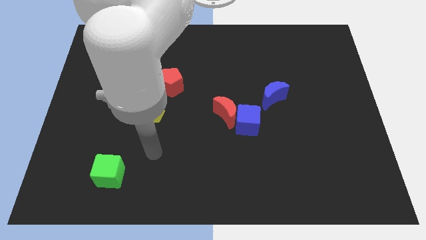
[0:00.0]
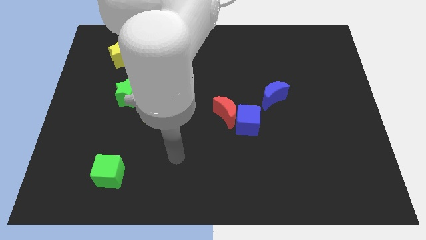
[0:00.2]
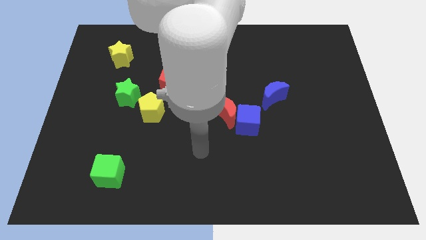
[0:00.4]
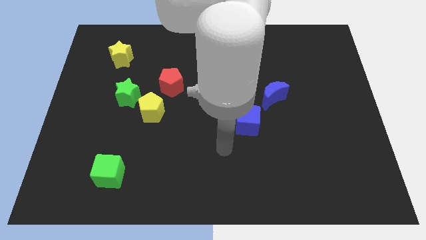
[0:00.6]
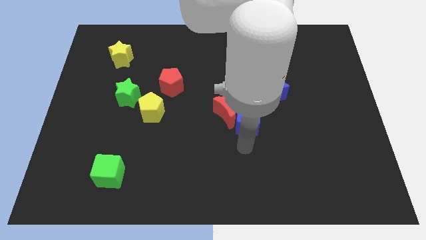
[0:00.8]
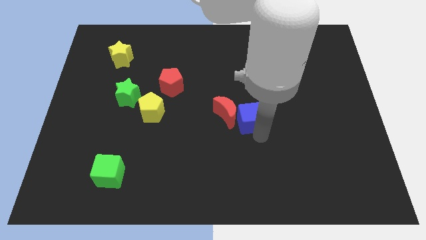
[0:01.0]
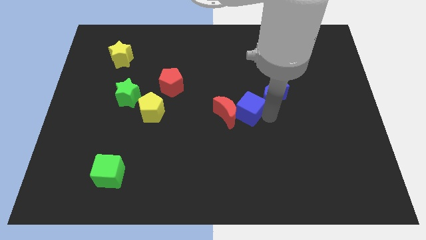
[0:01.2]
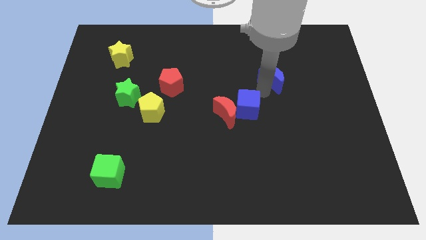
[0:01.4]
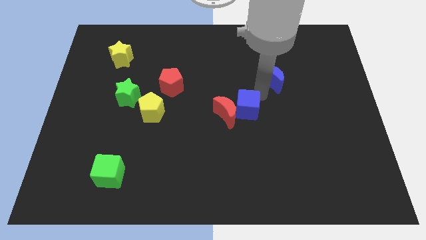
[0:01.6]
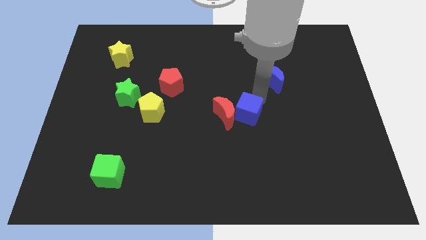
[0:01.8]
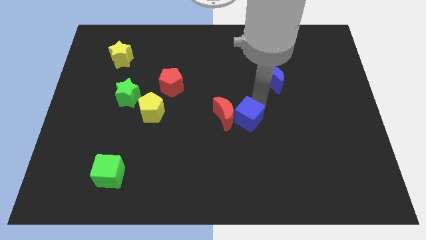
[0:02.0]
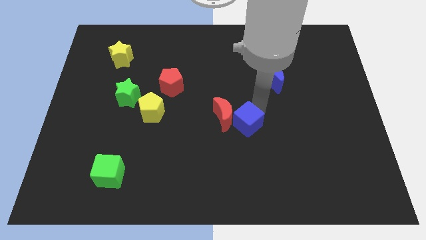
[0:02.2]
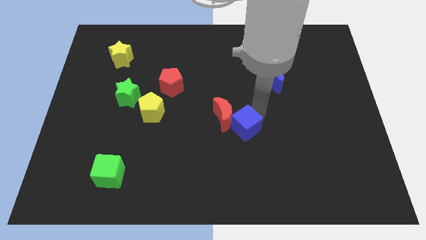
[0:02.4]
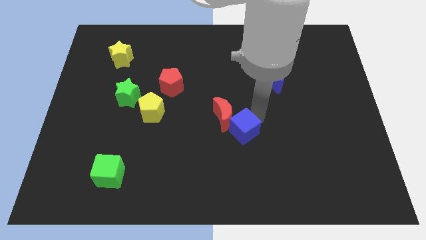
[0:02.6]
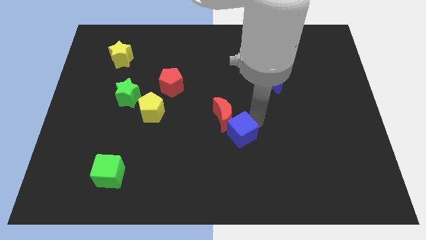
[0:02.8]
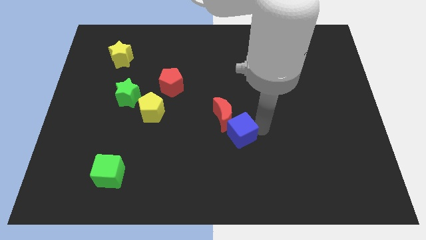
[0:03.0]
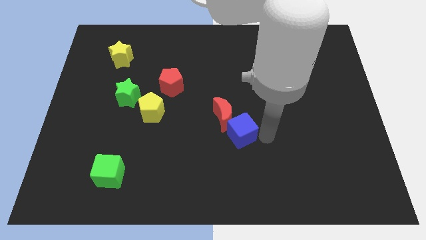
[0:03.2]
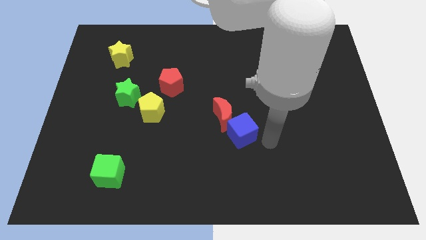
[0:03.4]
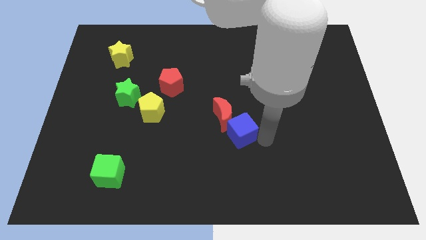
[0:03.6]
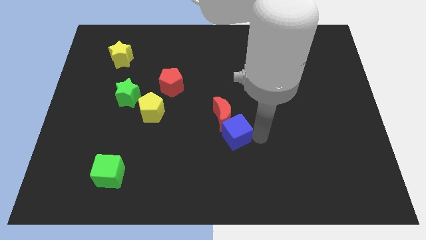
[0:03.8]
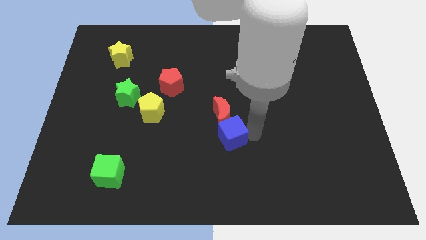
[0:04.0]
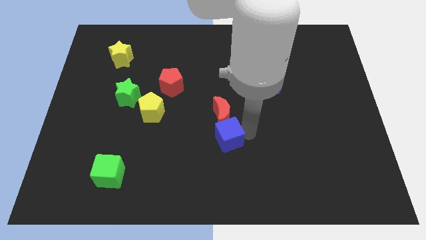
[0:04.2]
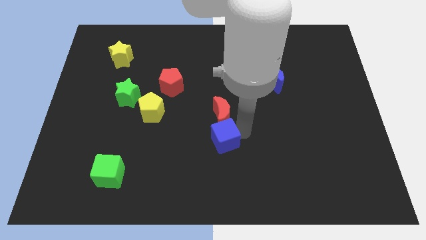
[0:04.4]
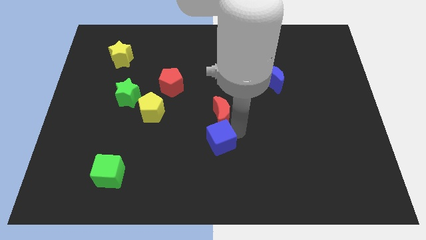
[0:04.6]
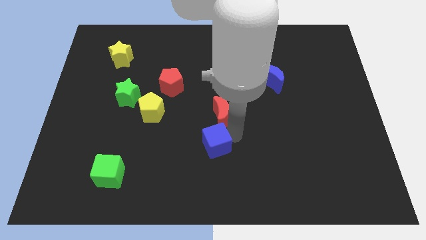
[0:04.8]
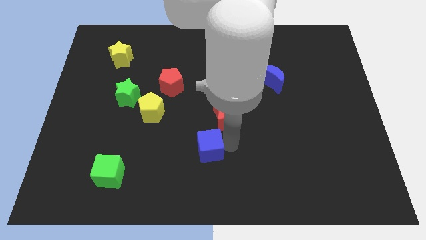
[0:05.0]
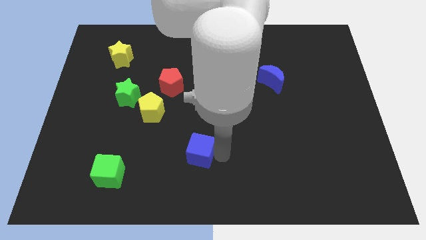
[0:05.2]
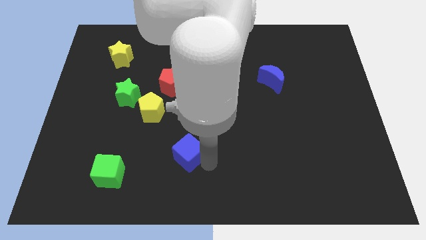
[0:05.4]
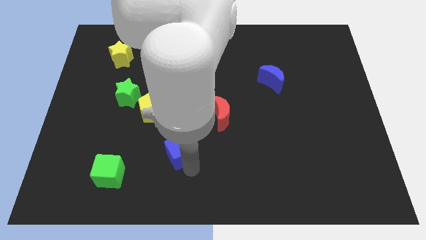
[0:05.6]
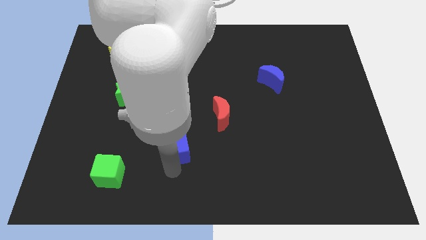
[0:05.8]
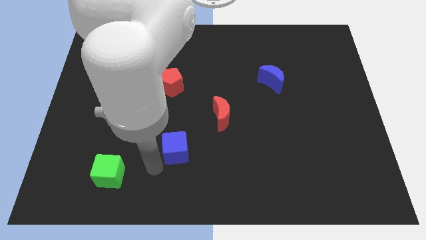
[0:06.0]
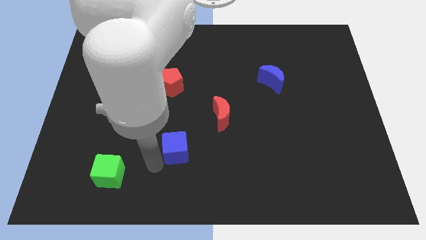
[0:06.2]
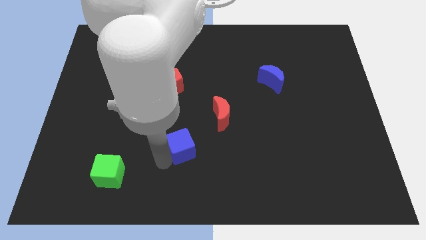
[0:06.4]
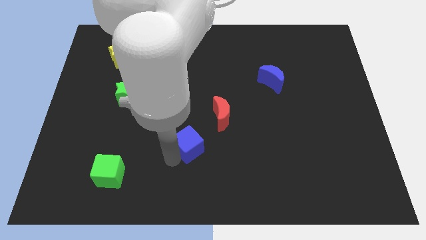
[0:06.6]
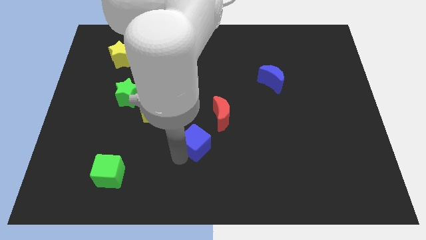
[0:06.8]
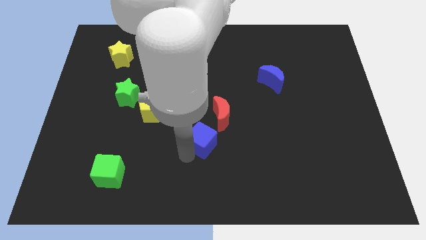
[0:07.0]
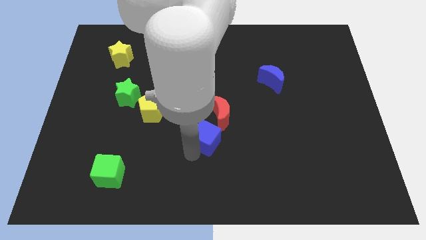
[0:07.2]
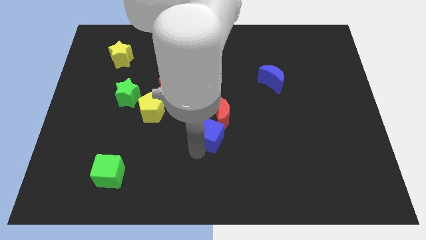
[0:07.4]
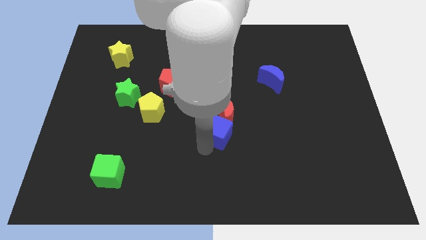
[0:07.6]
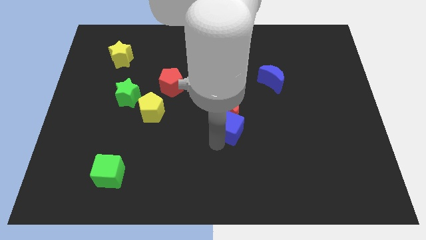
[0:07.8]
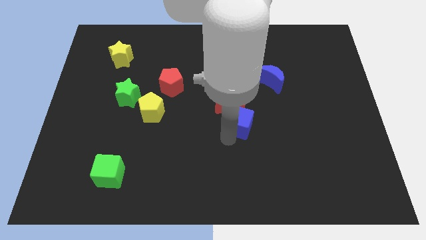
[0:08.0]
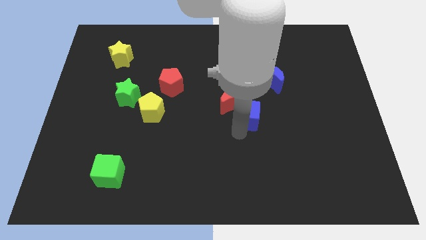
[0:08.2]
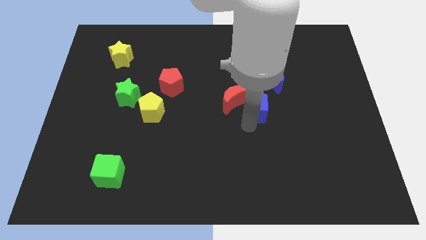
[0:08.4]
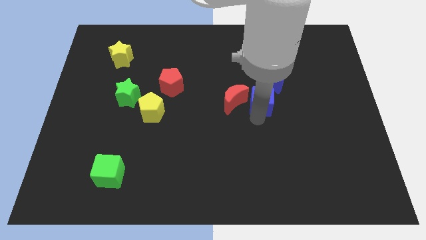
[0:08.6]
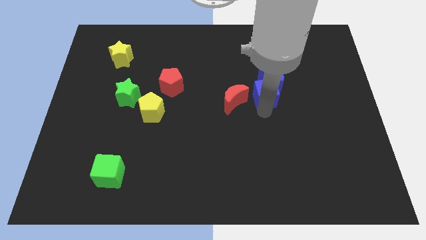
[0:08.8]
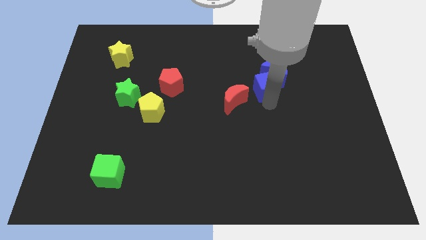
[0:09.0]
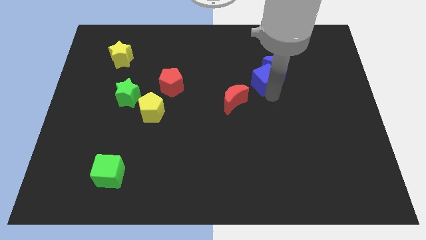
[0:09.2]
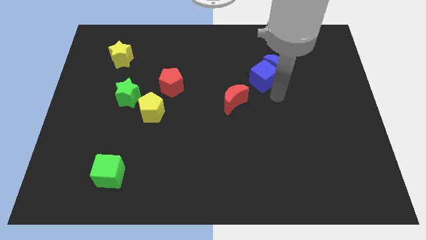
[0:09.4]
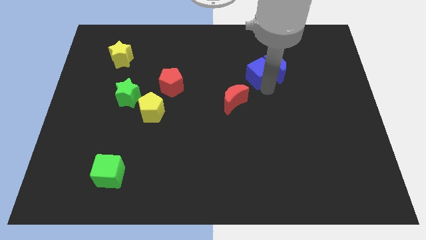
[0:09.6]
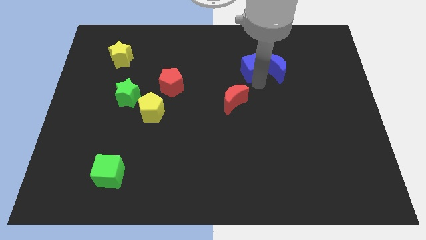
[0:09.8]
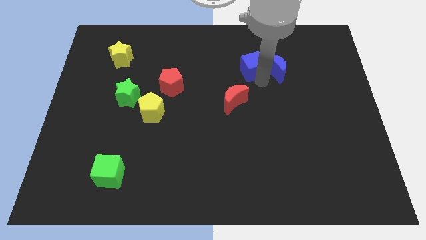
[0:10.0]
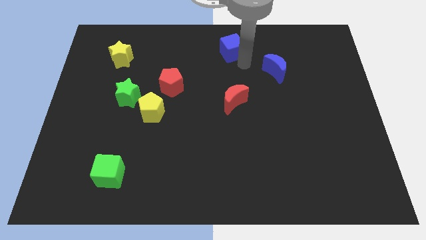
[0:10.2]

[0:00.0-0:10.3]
push the blue cube to the towards your base

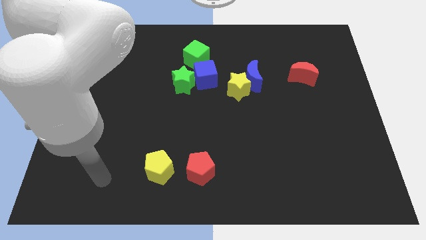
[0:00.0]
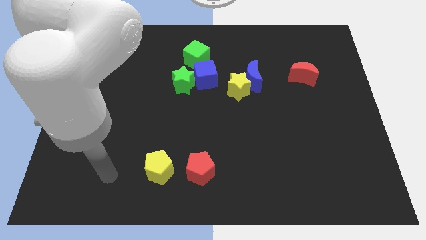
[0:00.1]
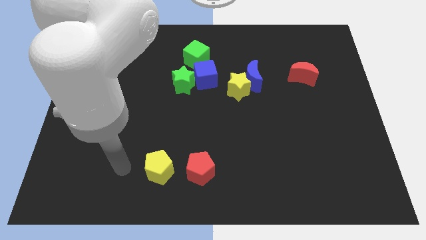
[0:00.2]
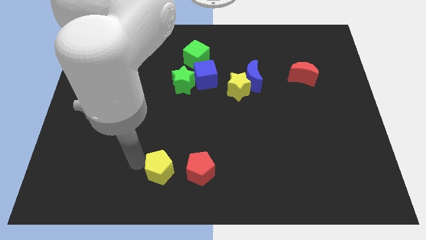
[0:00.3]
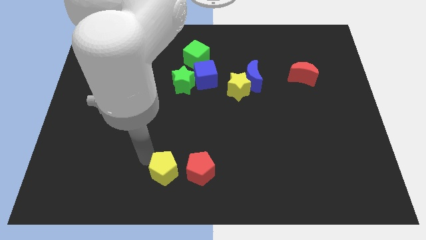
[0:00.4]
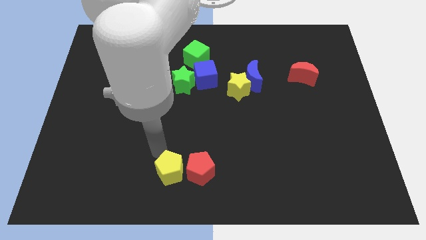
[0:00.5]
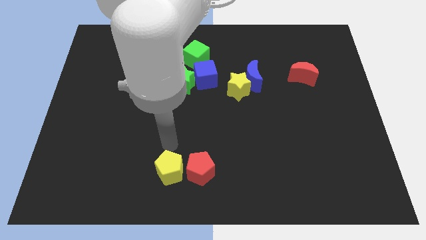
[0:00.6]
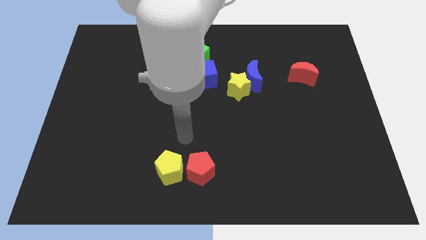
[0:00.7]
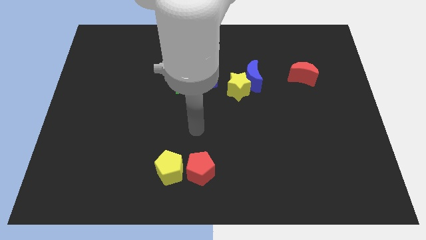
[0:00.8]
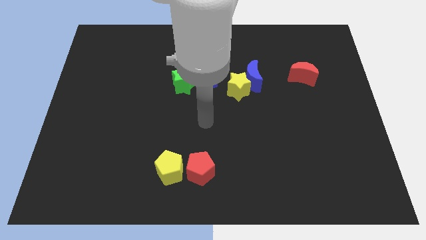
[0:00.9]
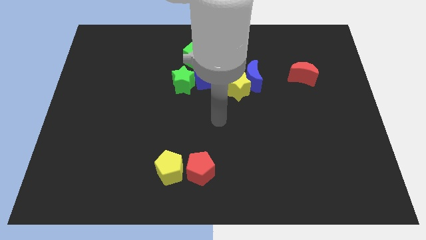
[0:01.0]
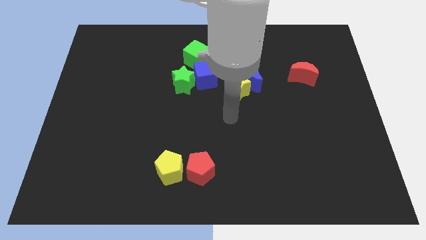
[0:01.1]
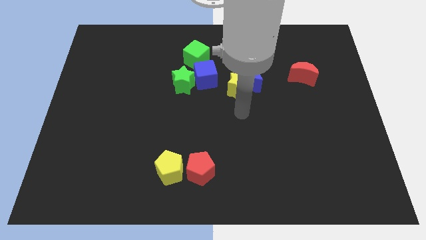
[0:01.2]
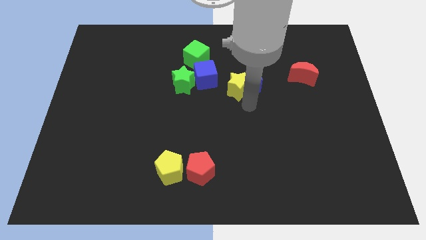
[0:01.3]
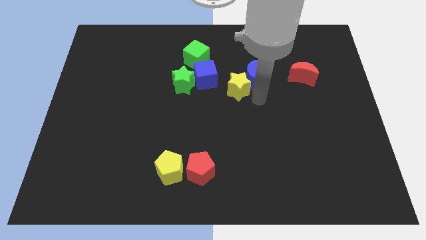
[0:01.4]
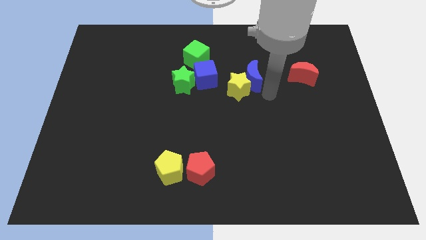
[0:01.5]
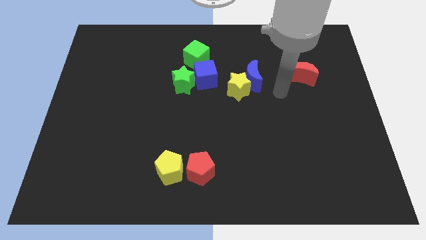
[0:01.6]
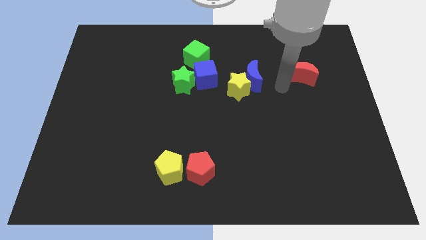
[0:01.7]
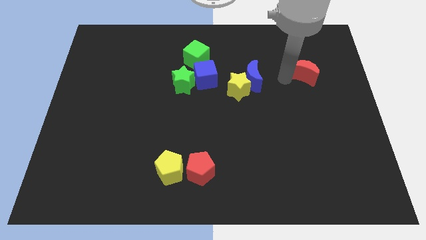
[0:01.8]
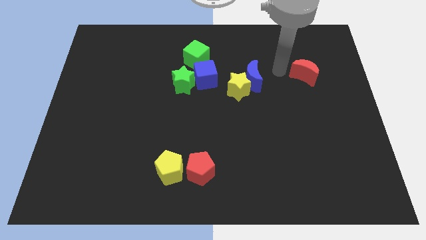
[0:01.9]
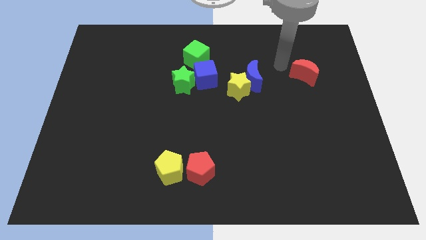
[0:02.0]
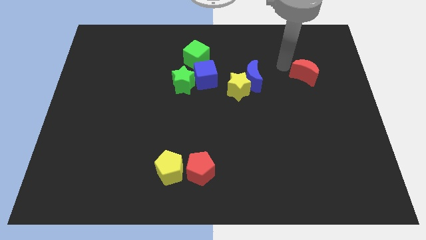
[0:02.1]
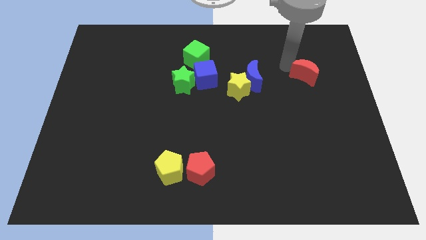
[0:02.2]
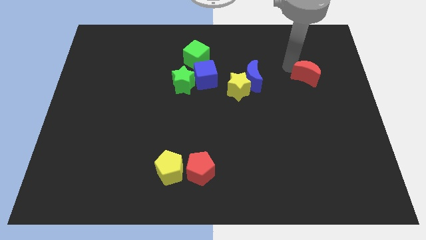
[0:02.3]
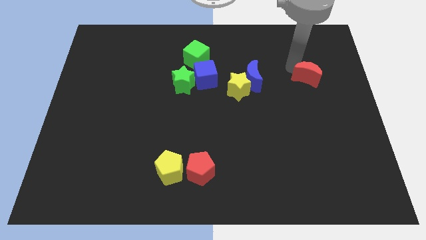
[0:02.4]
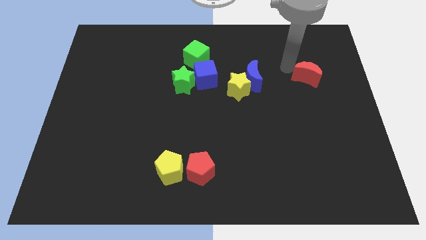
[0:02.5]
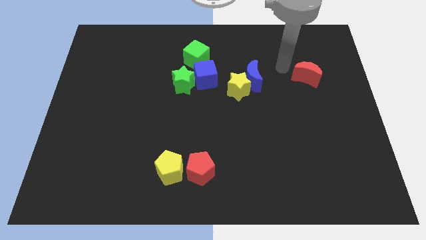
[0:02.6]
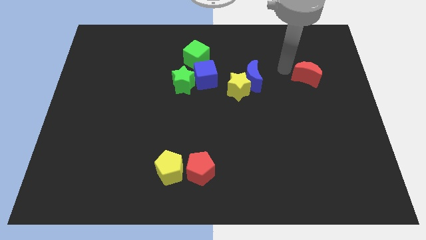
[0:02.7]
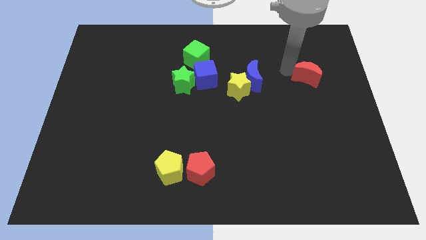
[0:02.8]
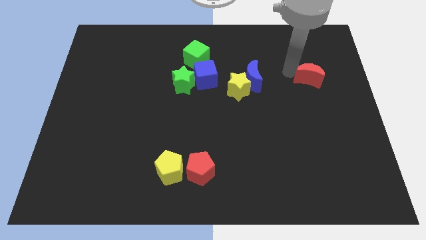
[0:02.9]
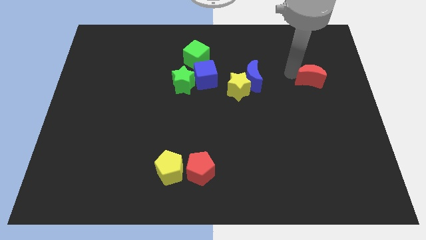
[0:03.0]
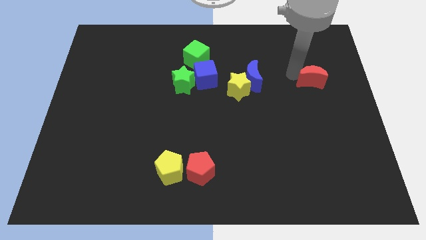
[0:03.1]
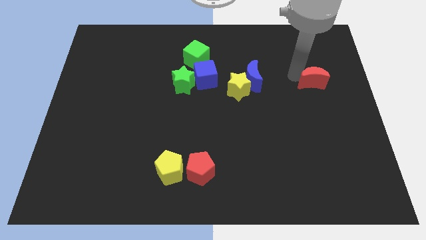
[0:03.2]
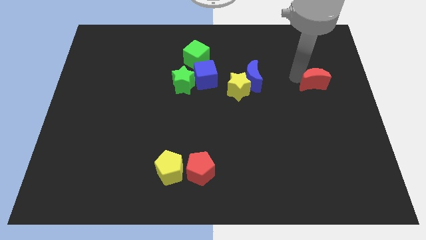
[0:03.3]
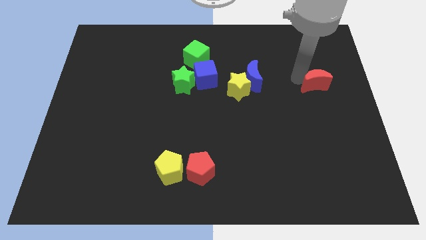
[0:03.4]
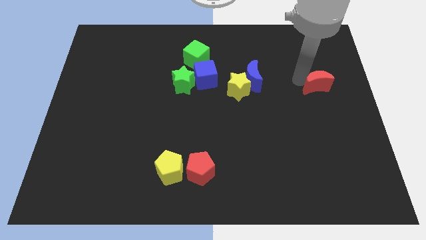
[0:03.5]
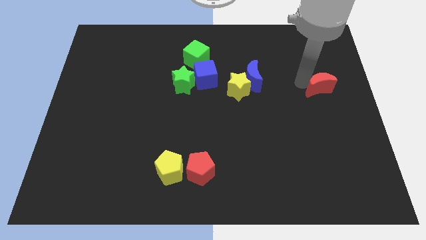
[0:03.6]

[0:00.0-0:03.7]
put the red moon to the right side
